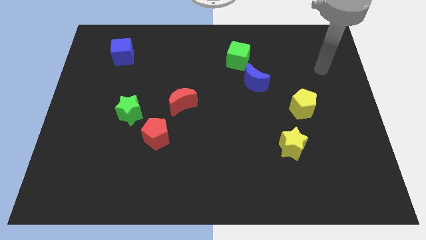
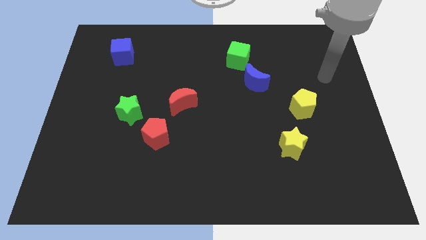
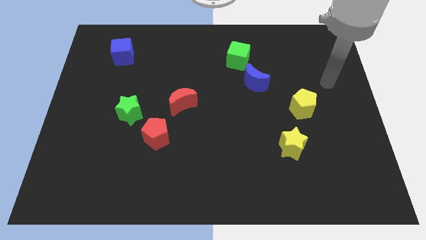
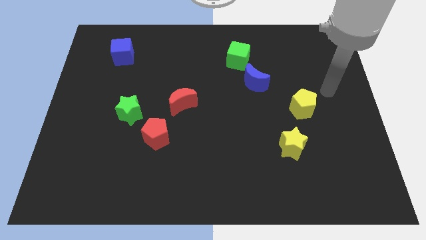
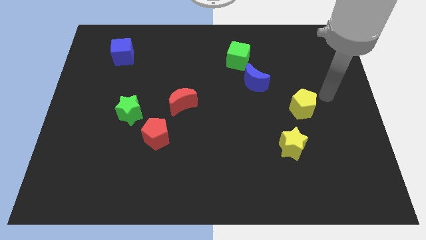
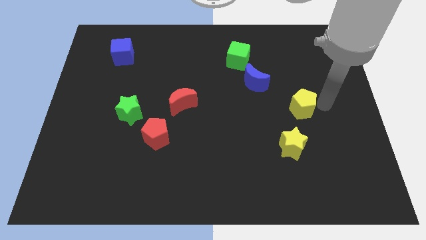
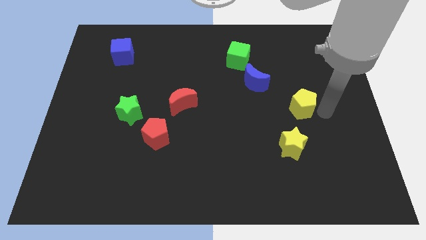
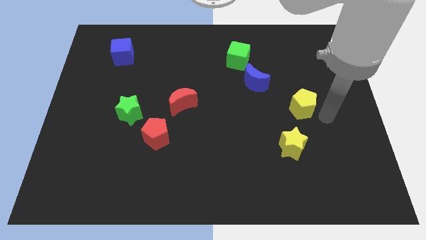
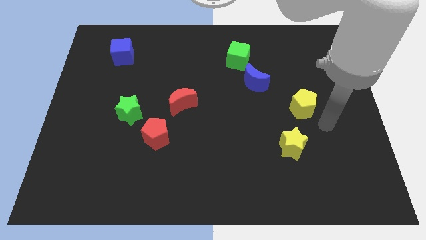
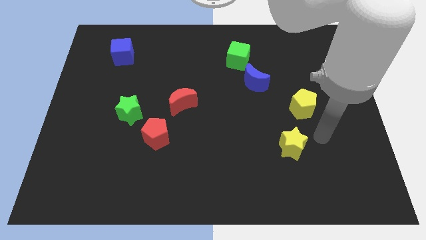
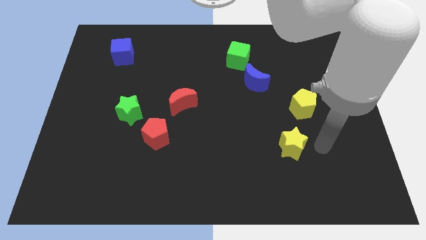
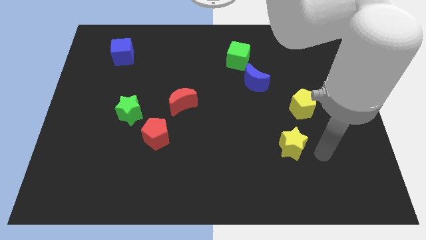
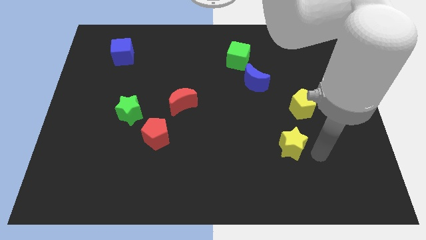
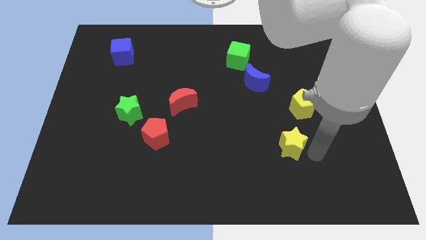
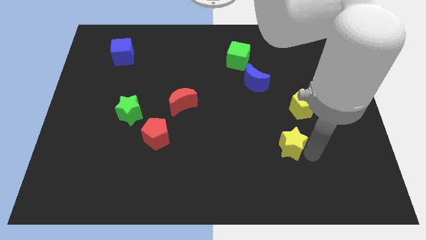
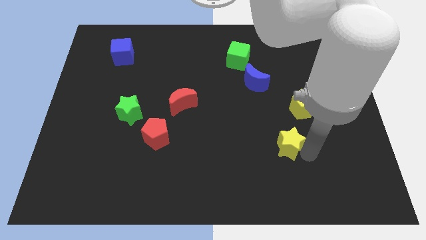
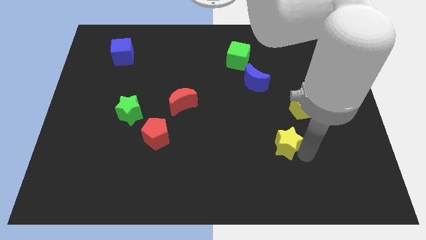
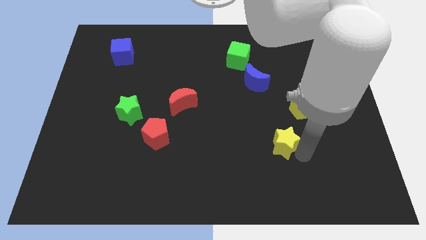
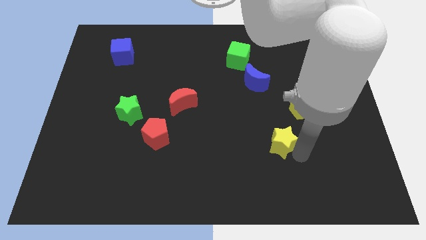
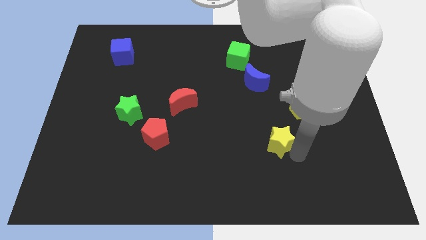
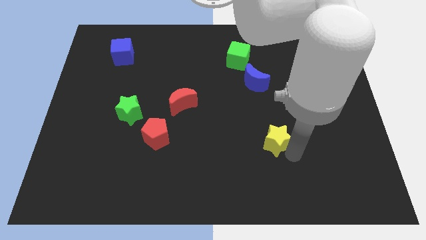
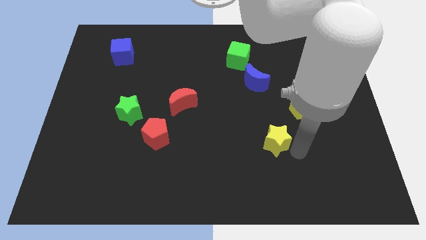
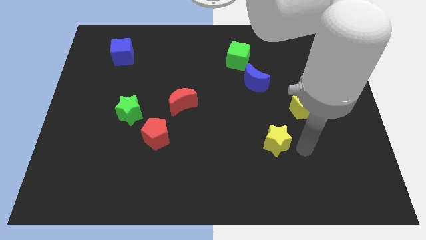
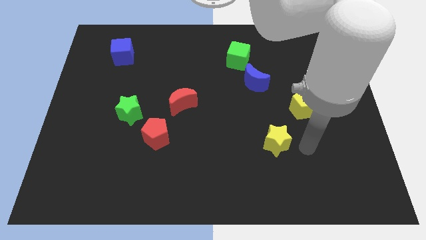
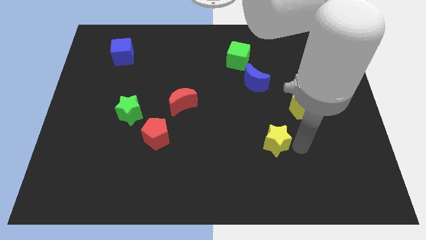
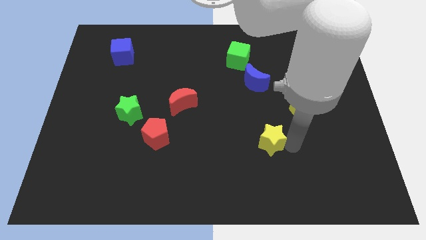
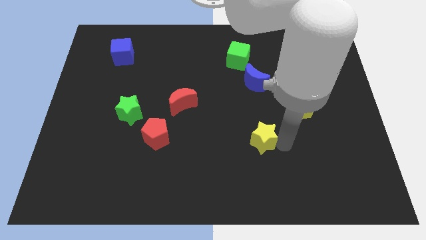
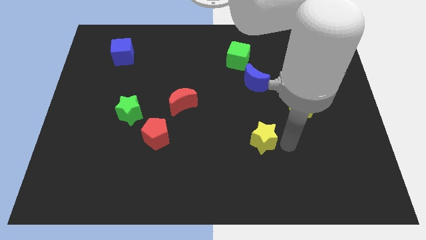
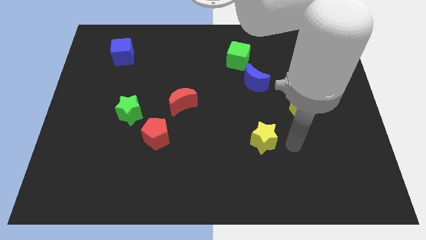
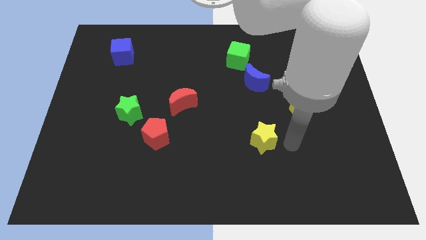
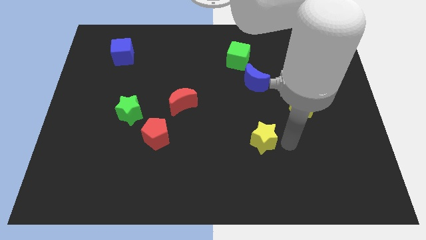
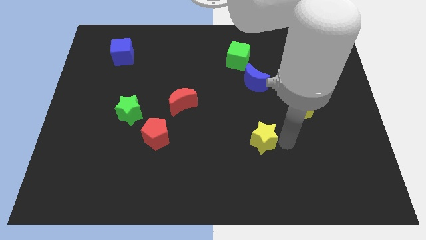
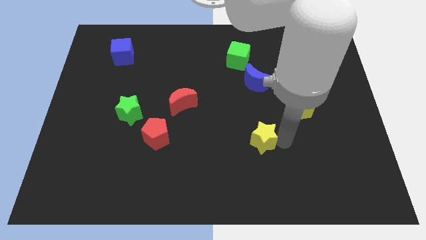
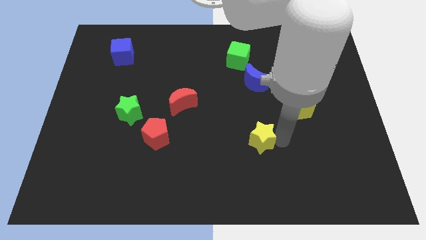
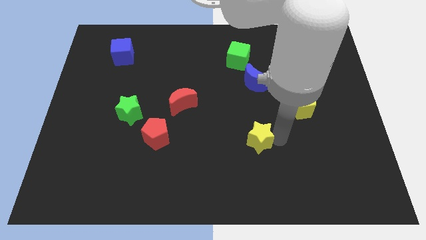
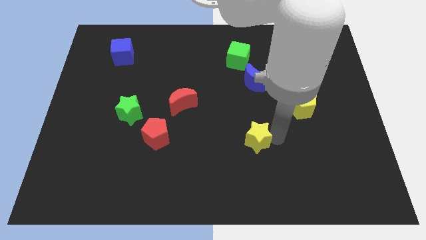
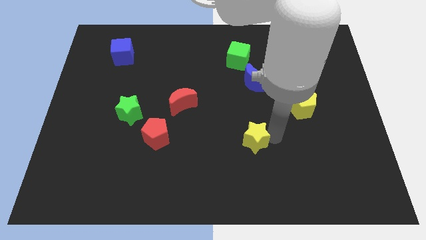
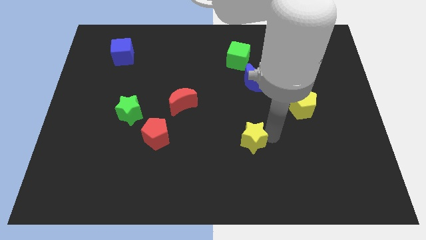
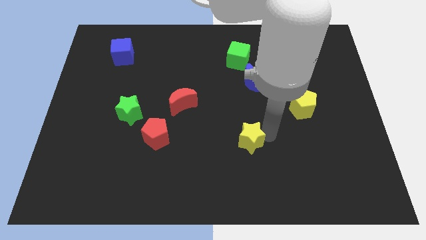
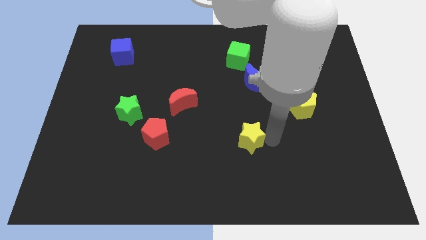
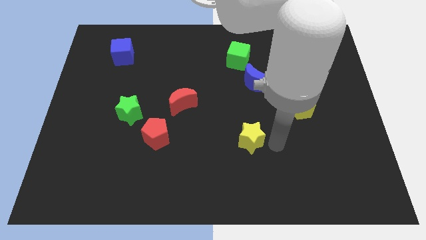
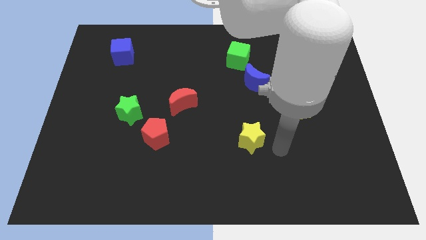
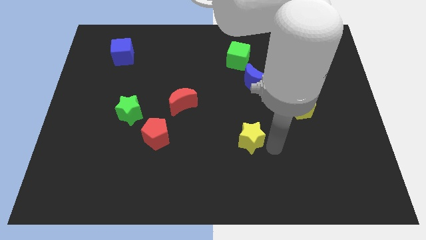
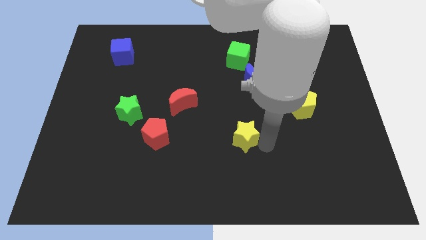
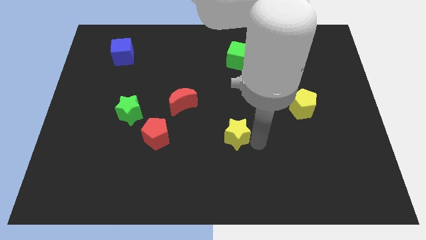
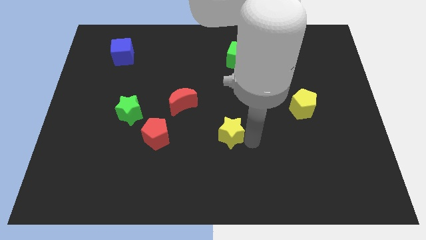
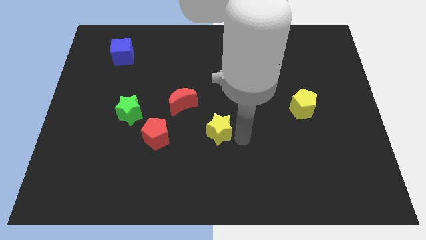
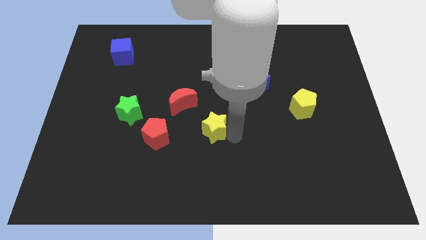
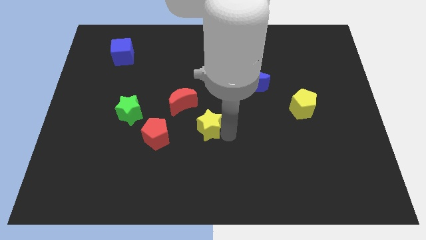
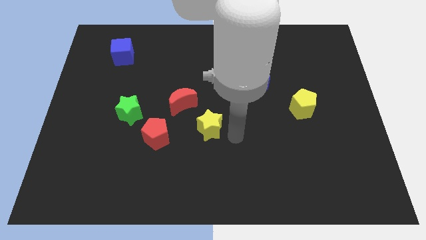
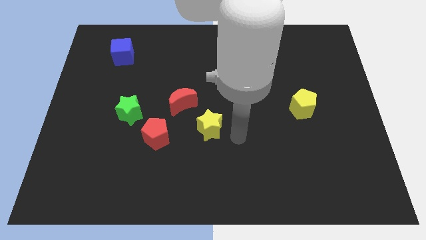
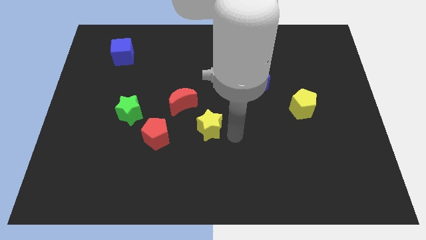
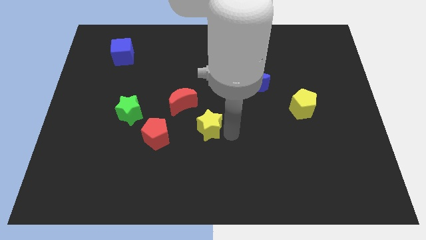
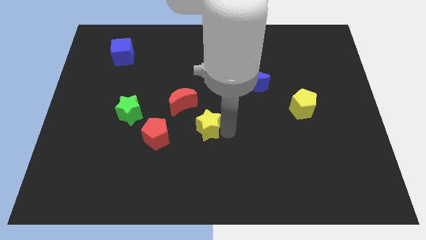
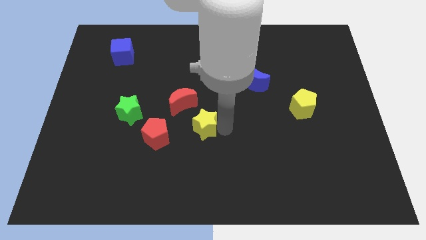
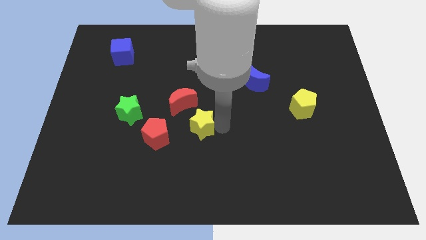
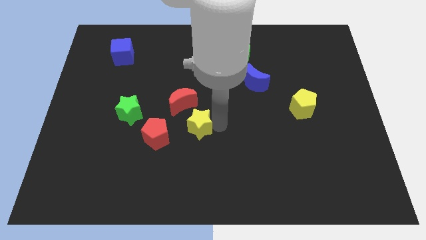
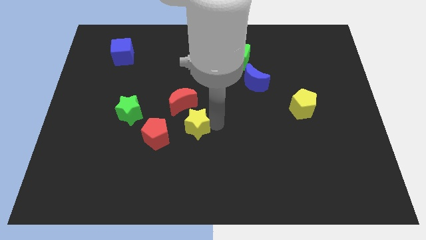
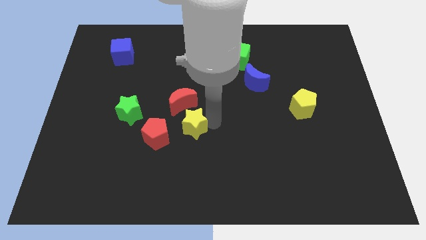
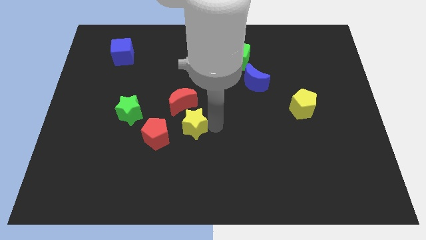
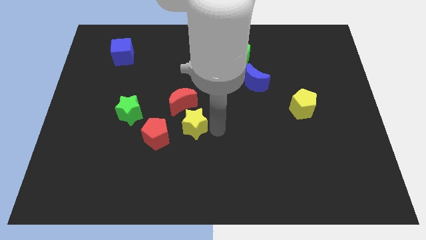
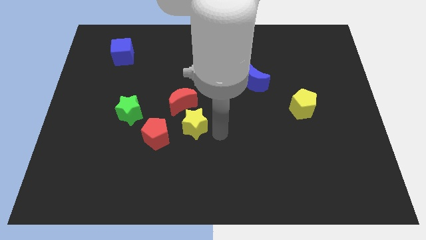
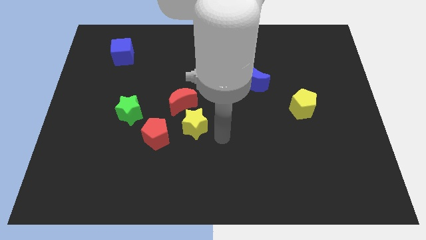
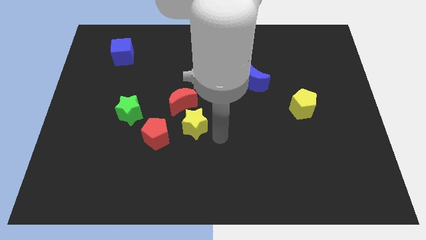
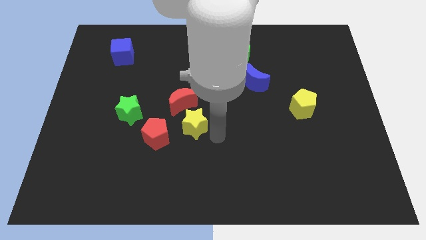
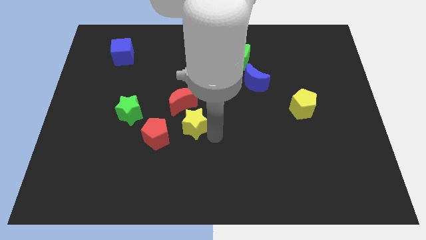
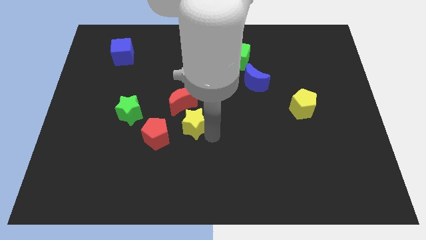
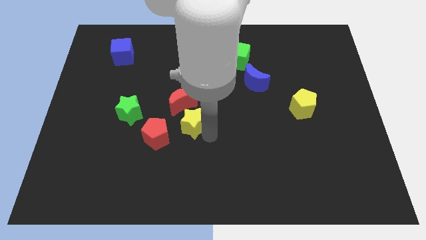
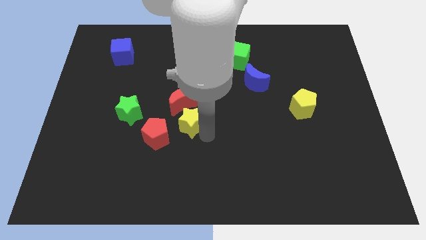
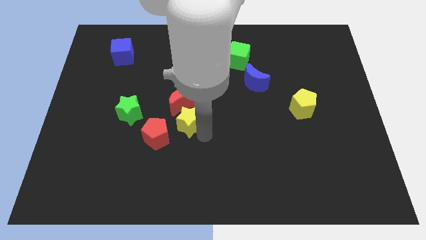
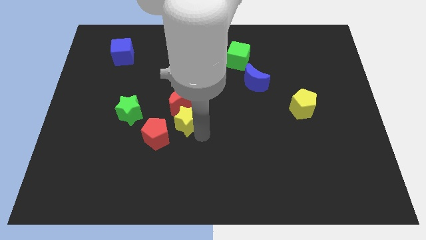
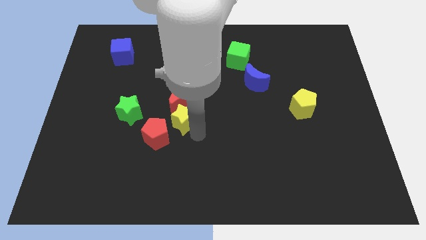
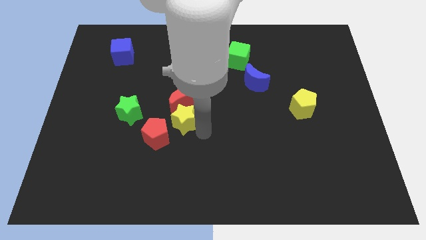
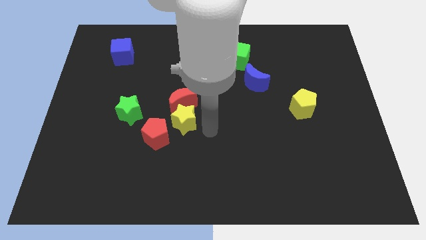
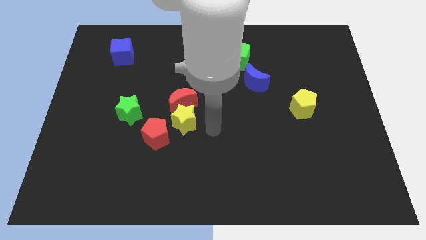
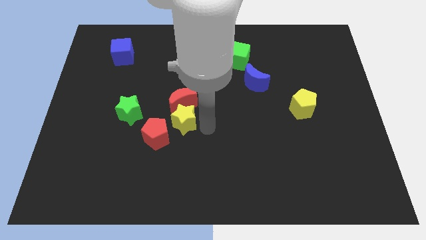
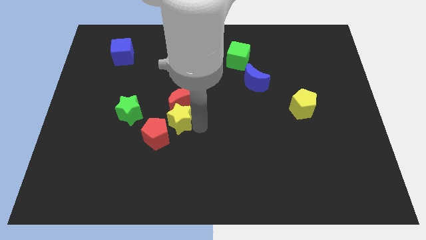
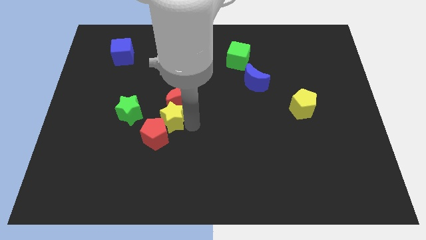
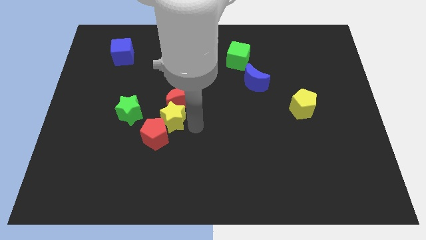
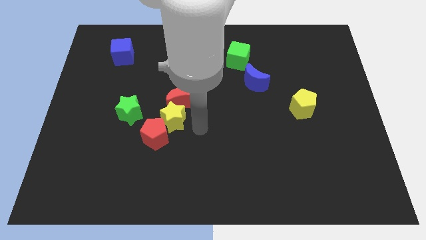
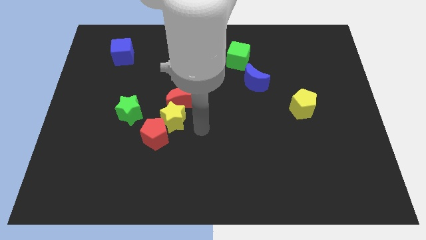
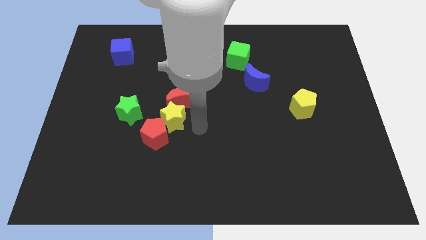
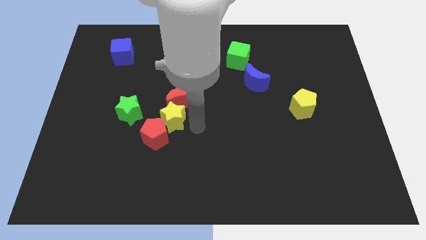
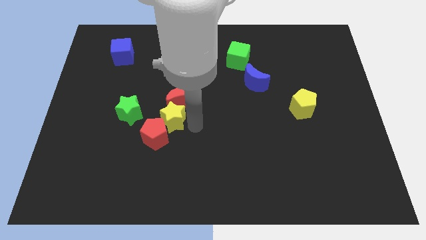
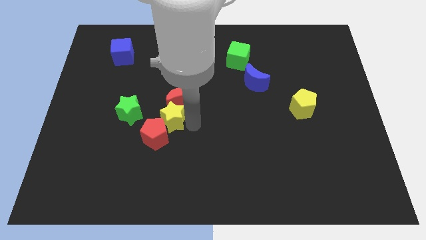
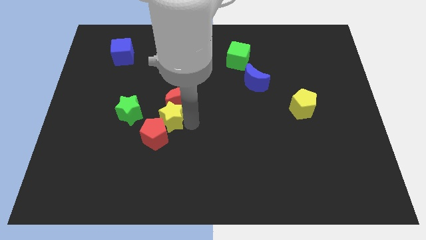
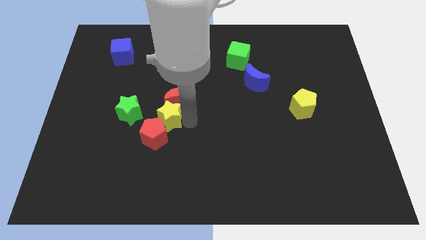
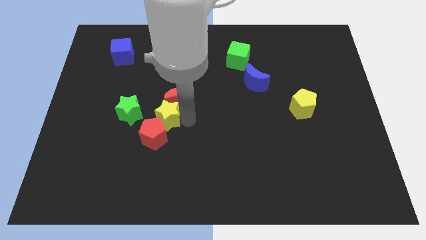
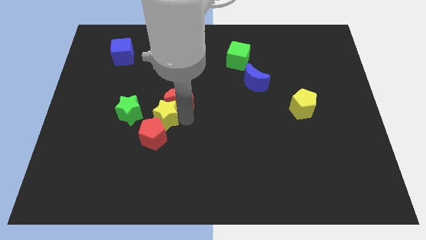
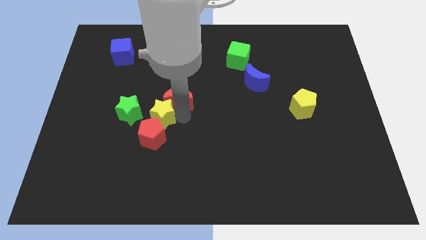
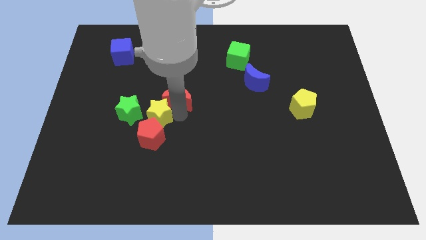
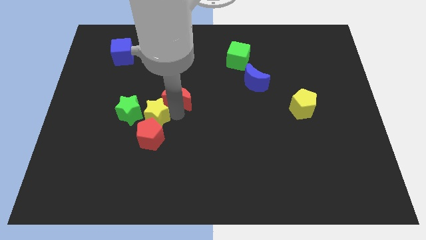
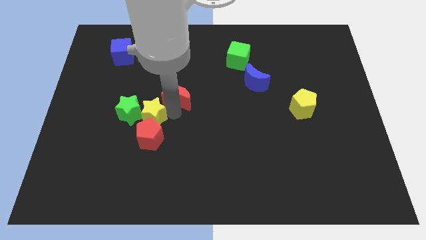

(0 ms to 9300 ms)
slide the yellow star to the green star
